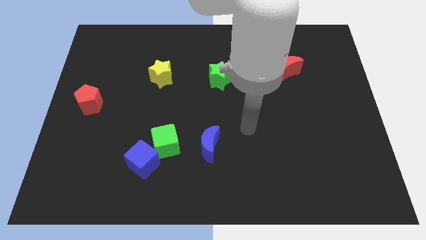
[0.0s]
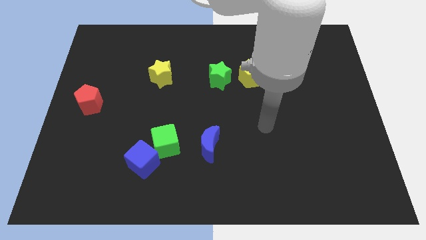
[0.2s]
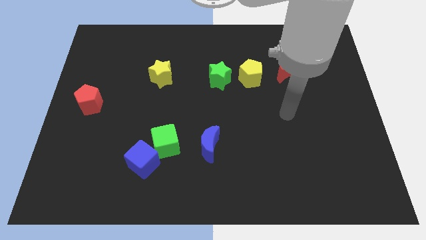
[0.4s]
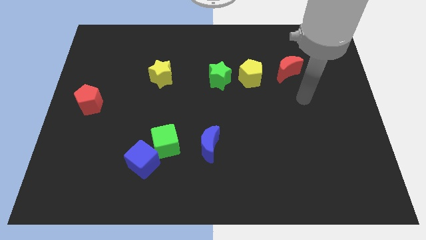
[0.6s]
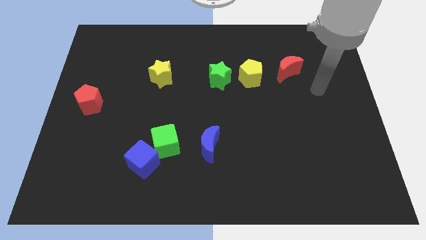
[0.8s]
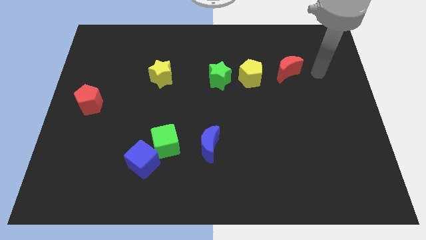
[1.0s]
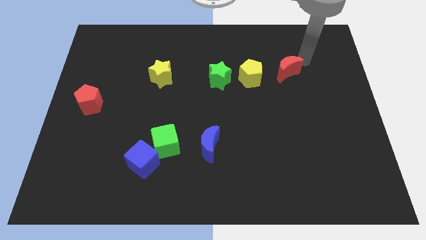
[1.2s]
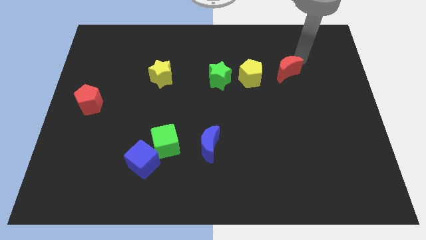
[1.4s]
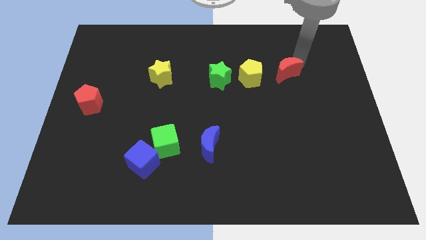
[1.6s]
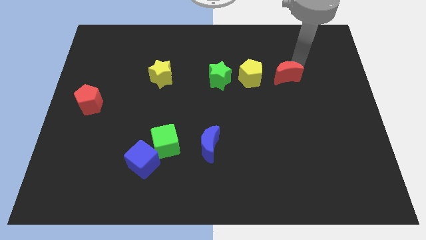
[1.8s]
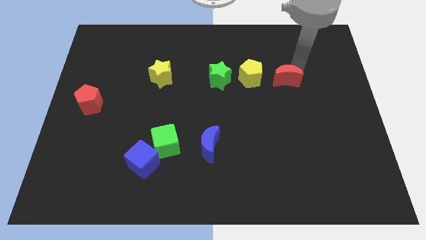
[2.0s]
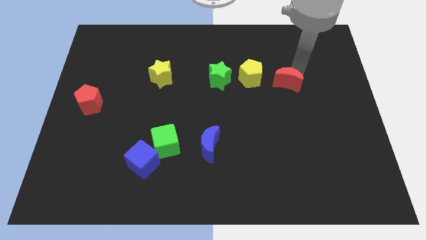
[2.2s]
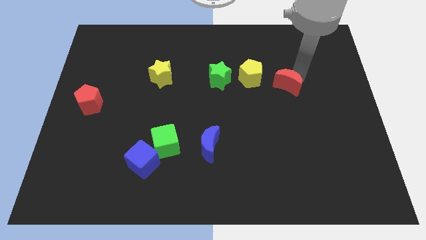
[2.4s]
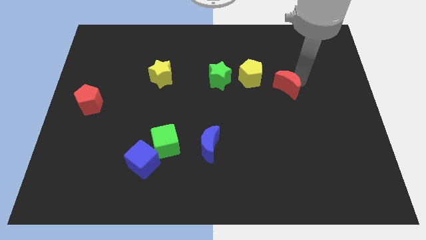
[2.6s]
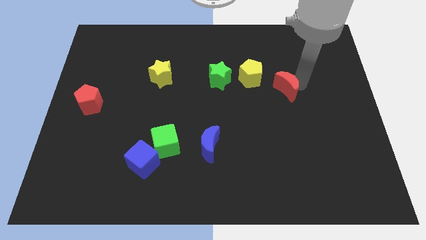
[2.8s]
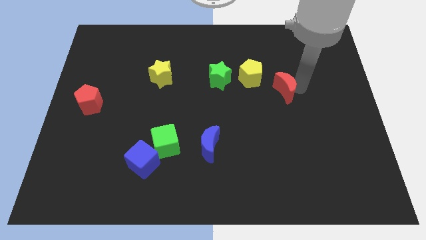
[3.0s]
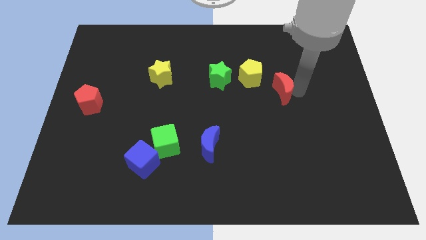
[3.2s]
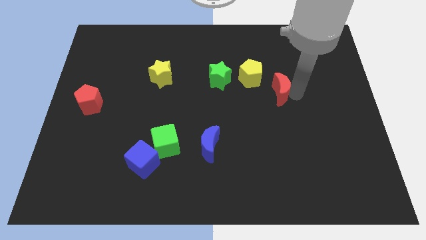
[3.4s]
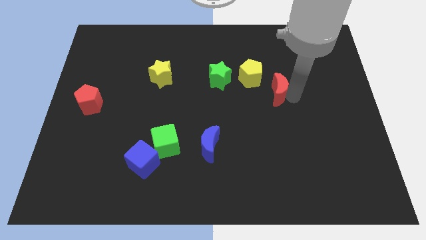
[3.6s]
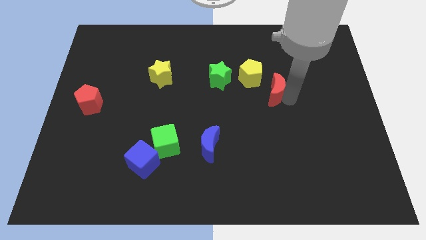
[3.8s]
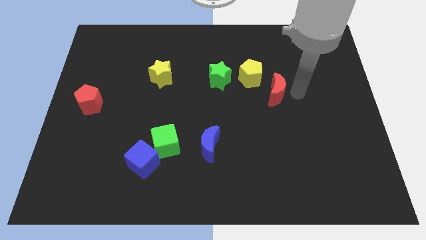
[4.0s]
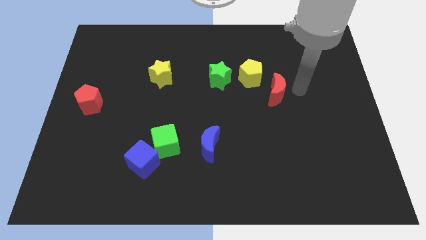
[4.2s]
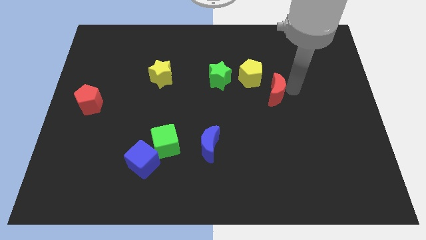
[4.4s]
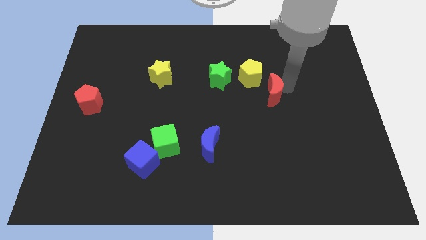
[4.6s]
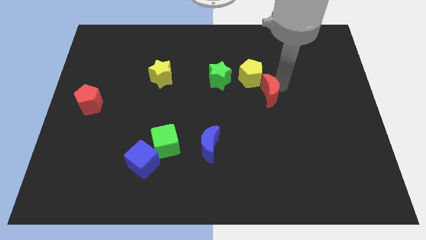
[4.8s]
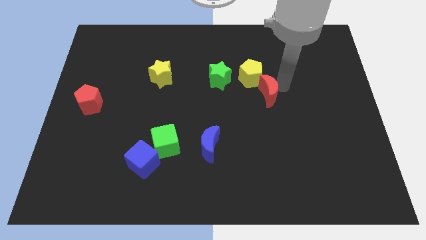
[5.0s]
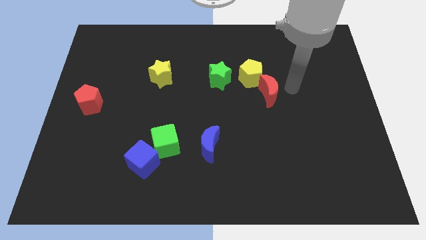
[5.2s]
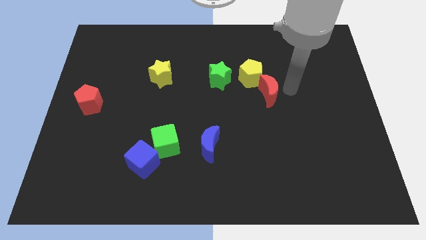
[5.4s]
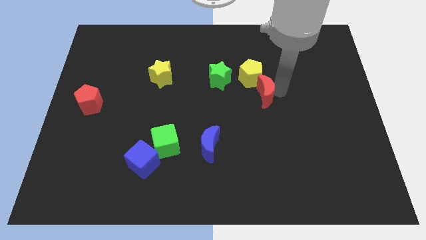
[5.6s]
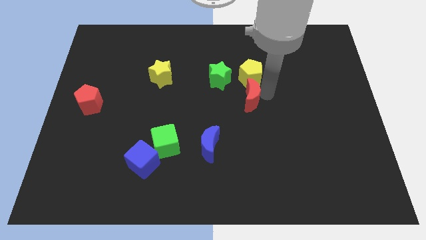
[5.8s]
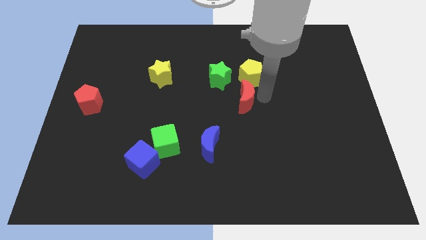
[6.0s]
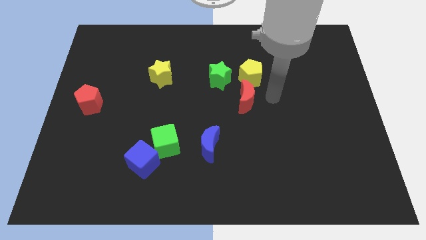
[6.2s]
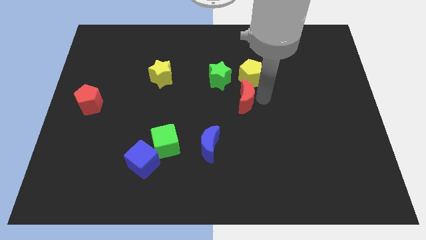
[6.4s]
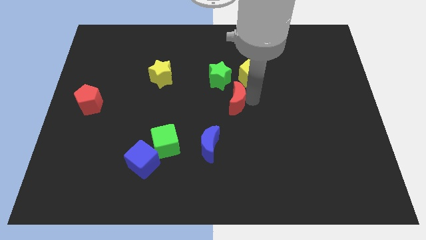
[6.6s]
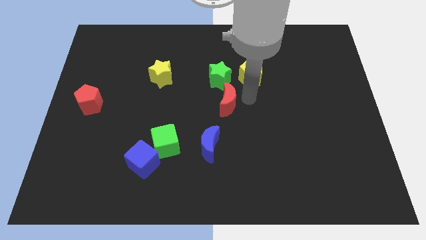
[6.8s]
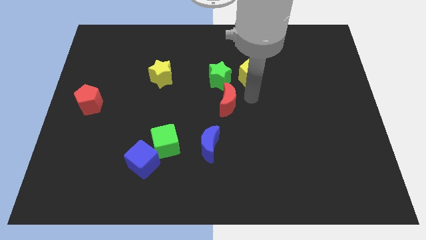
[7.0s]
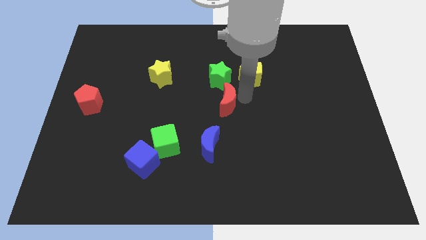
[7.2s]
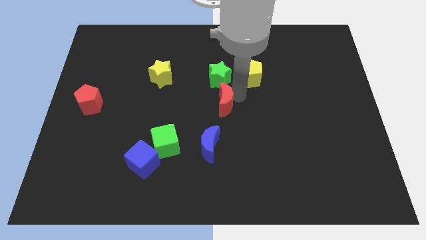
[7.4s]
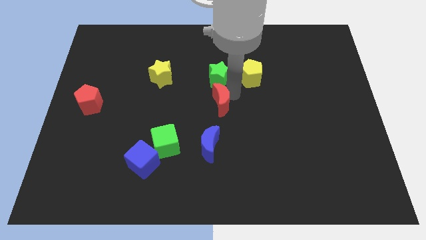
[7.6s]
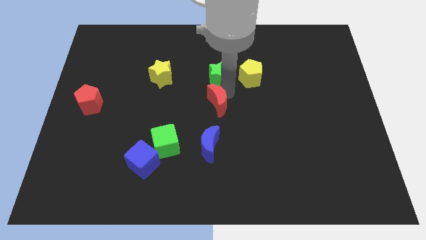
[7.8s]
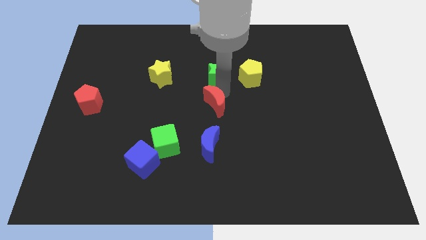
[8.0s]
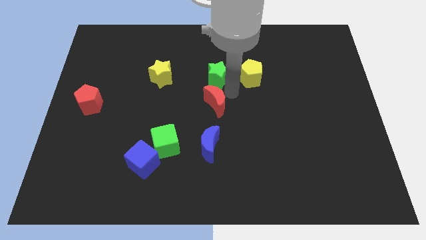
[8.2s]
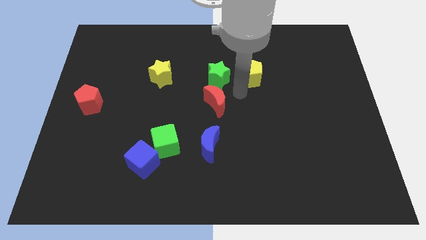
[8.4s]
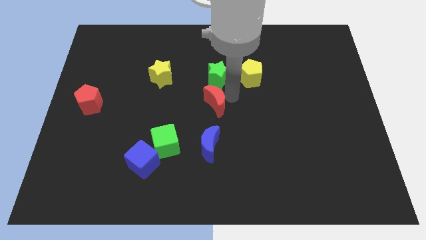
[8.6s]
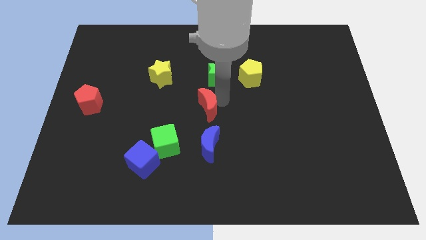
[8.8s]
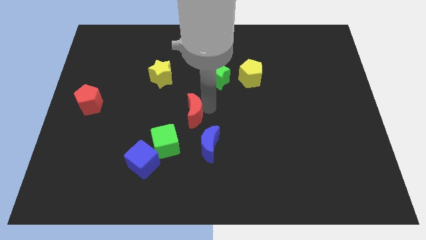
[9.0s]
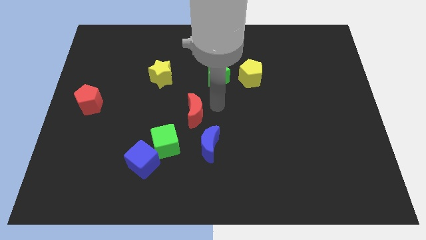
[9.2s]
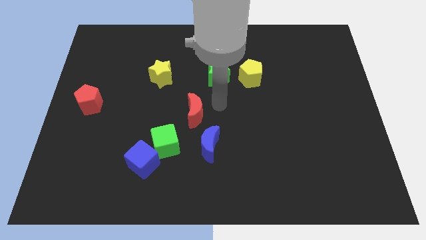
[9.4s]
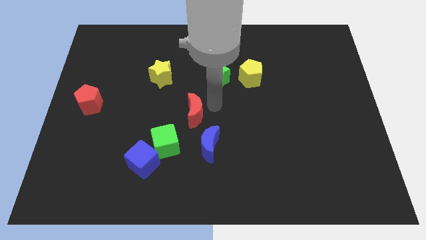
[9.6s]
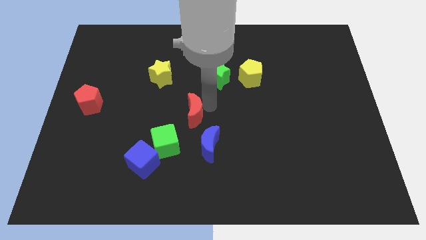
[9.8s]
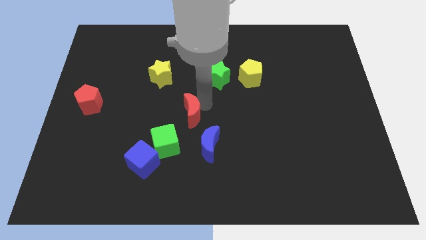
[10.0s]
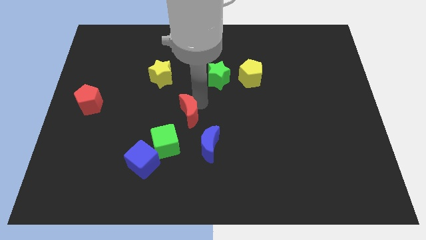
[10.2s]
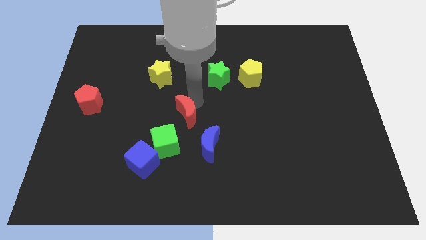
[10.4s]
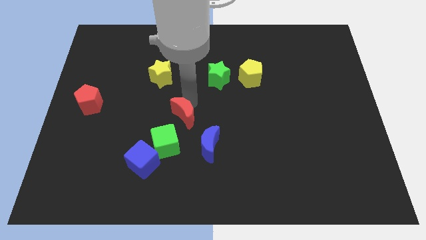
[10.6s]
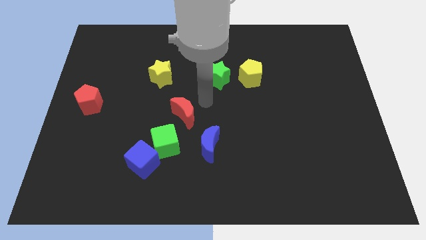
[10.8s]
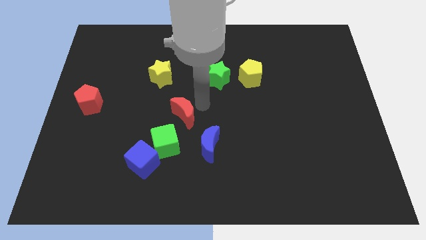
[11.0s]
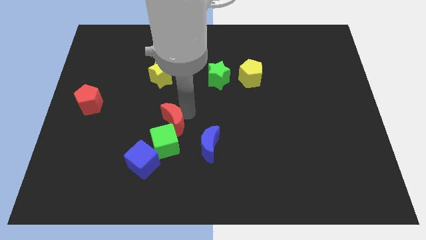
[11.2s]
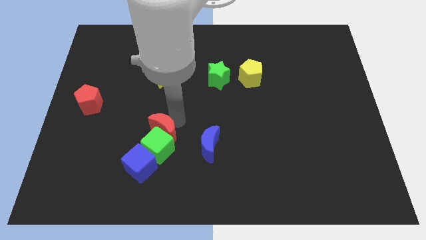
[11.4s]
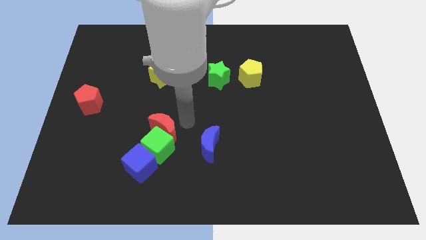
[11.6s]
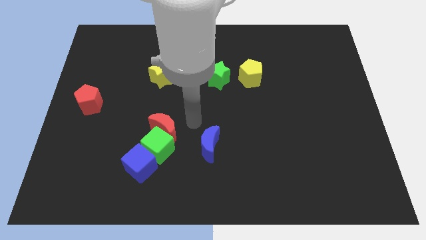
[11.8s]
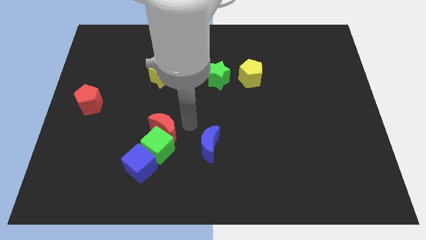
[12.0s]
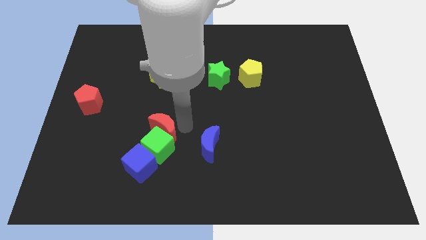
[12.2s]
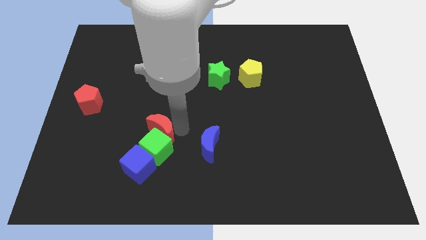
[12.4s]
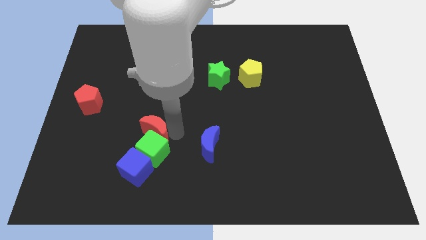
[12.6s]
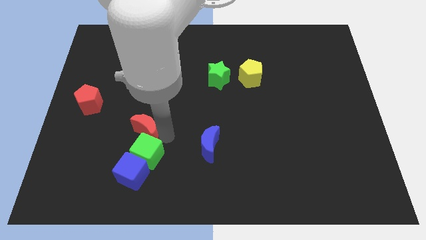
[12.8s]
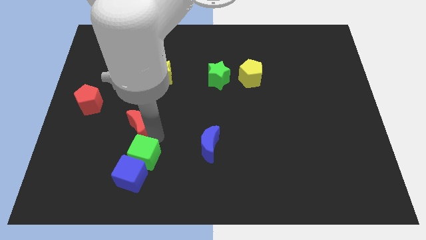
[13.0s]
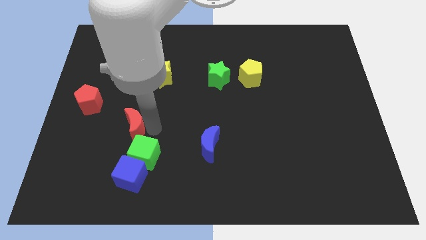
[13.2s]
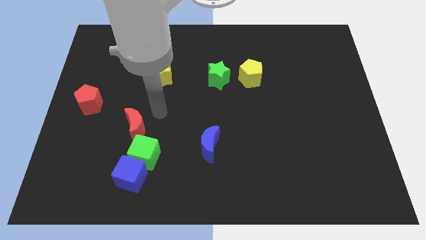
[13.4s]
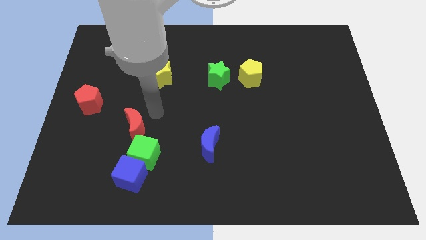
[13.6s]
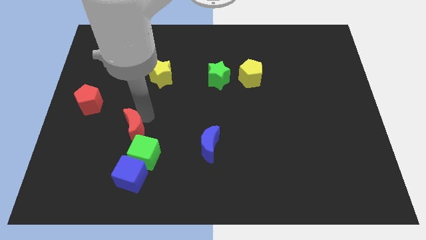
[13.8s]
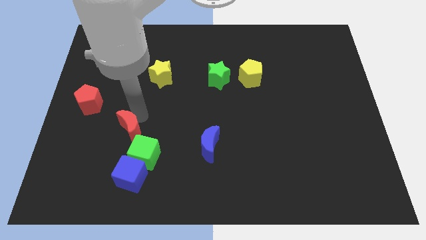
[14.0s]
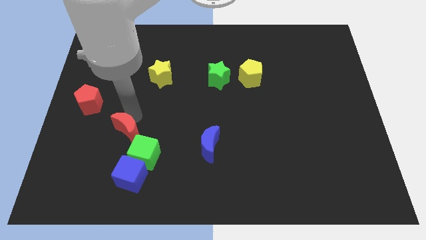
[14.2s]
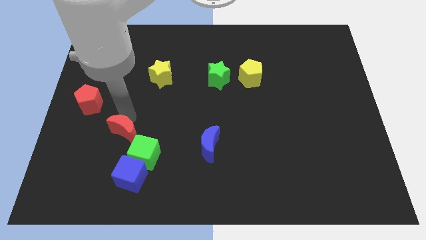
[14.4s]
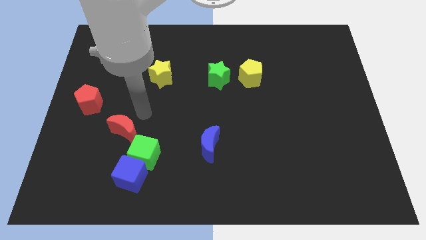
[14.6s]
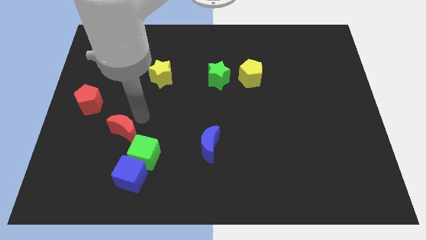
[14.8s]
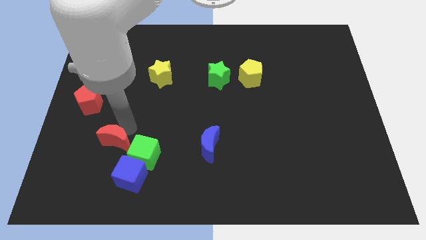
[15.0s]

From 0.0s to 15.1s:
push the red moon just left of the green cube
